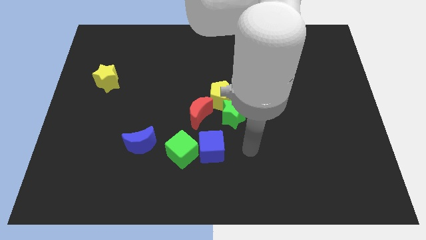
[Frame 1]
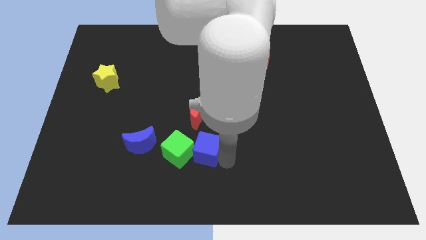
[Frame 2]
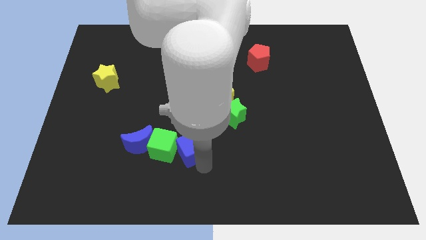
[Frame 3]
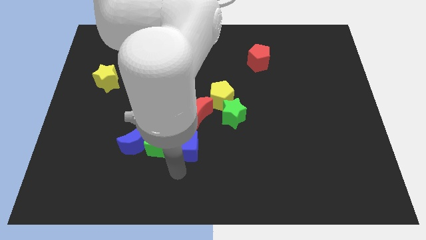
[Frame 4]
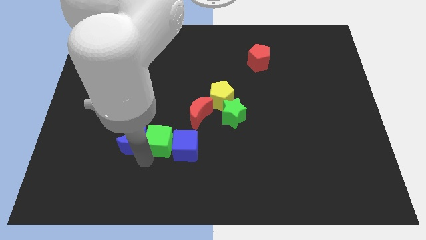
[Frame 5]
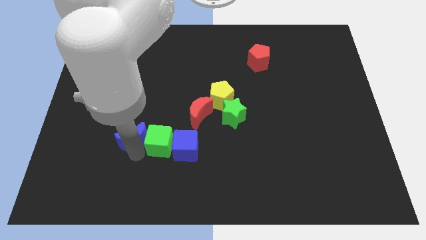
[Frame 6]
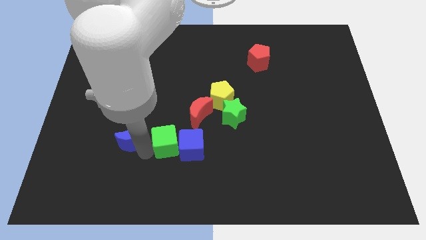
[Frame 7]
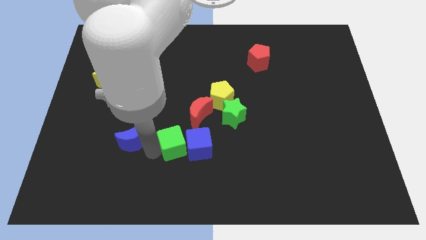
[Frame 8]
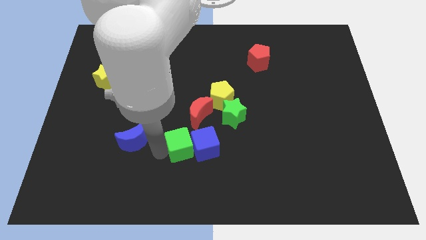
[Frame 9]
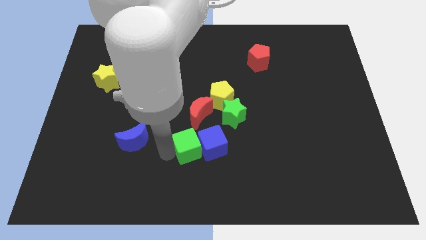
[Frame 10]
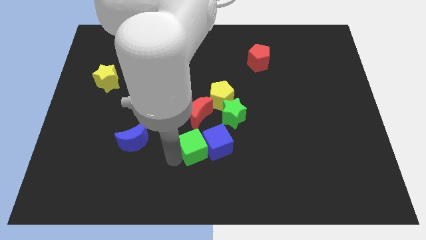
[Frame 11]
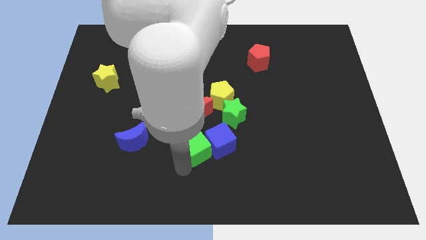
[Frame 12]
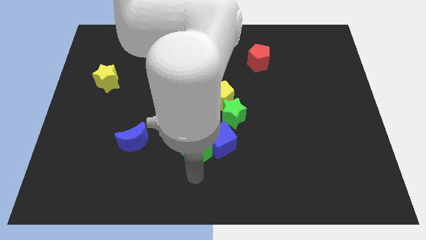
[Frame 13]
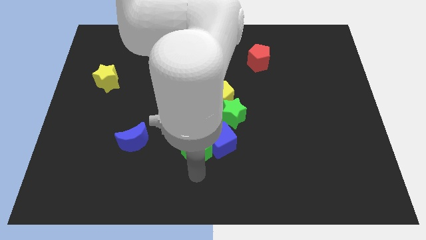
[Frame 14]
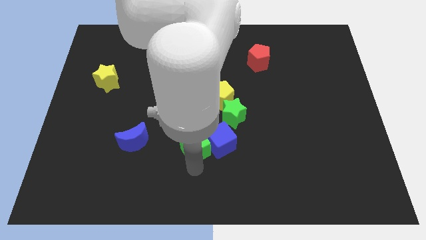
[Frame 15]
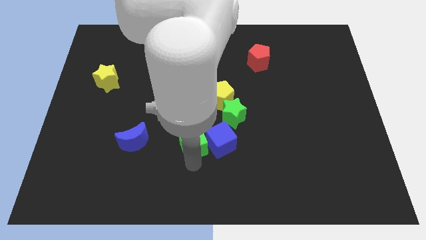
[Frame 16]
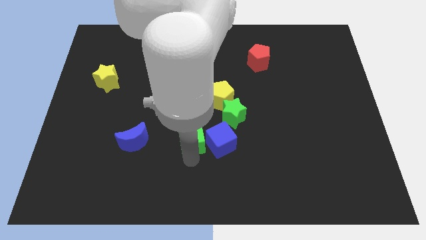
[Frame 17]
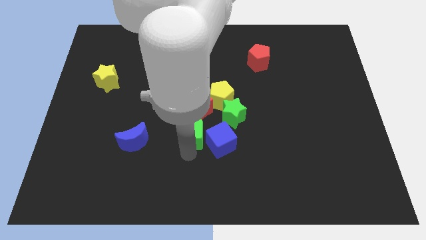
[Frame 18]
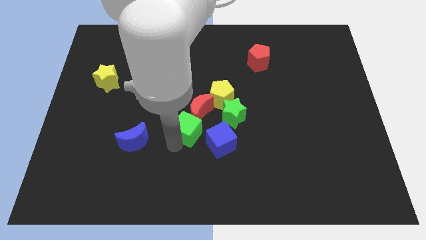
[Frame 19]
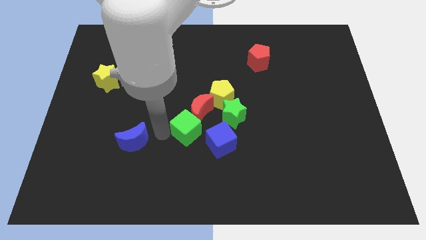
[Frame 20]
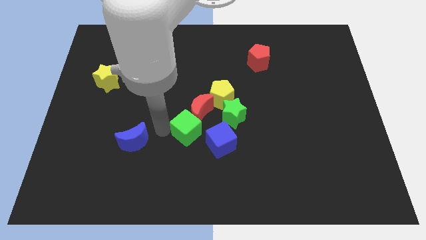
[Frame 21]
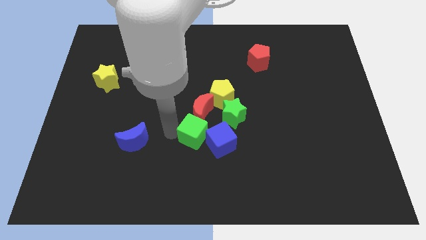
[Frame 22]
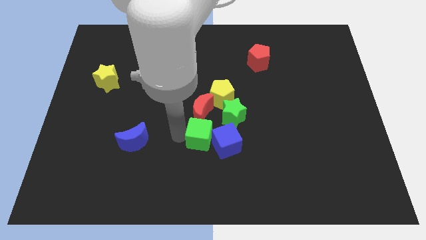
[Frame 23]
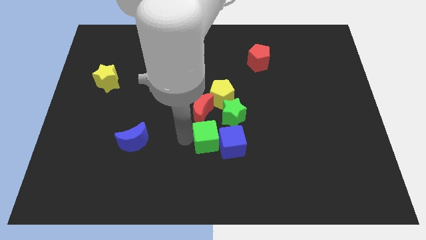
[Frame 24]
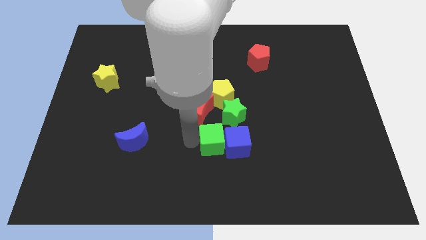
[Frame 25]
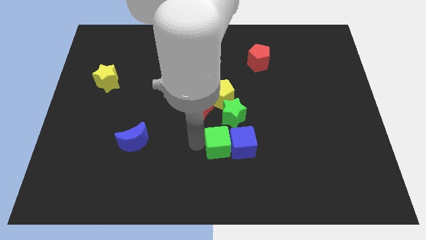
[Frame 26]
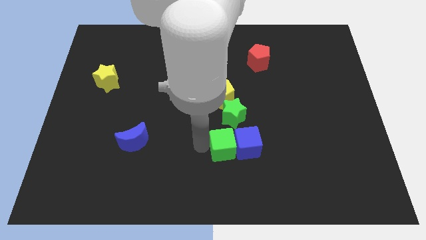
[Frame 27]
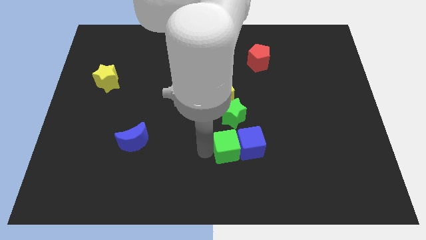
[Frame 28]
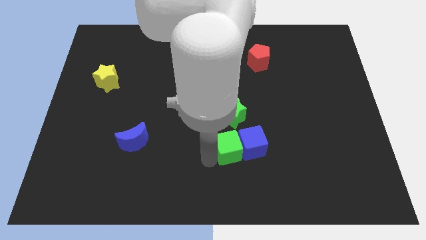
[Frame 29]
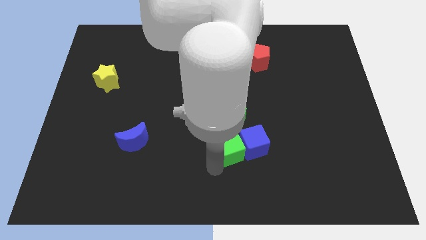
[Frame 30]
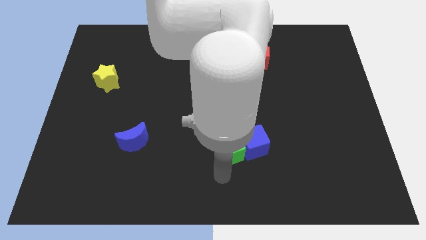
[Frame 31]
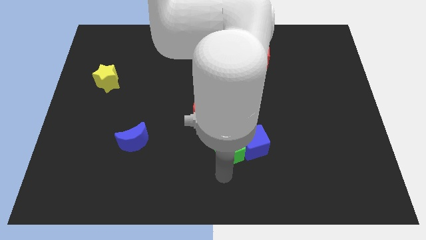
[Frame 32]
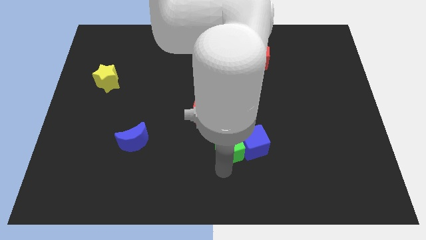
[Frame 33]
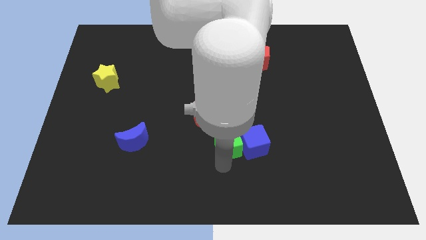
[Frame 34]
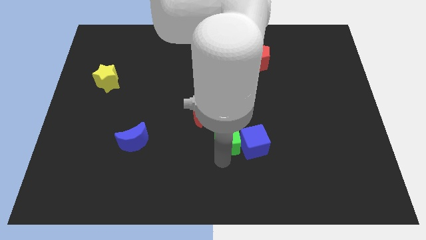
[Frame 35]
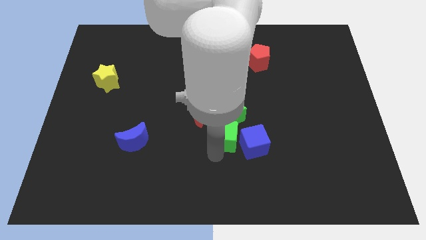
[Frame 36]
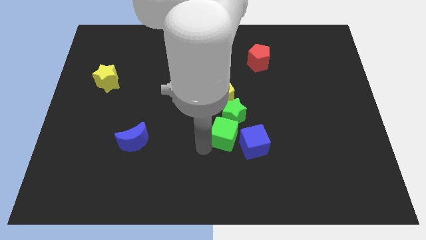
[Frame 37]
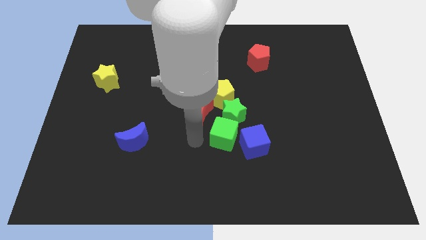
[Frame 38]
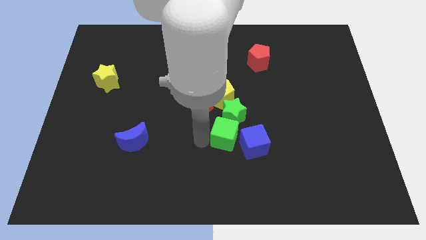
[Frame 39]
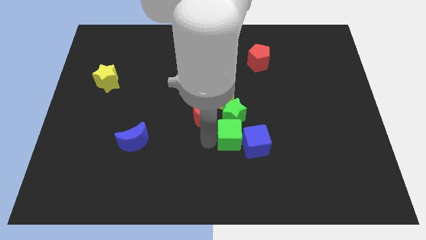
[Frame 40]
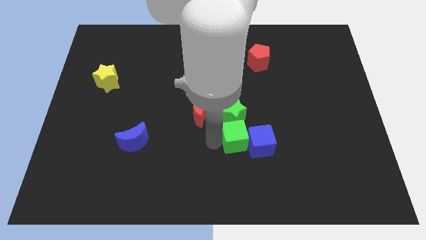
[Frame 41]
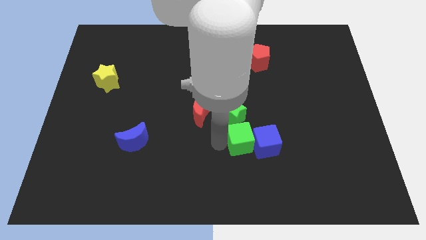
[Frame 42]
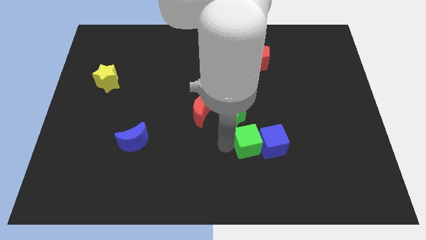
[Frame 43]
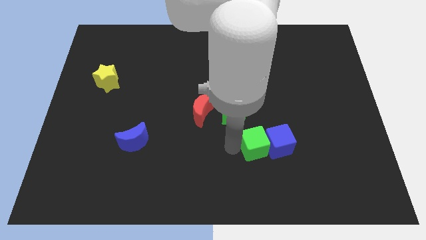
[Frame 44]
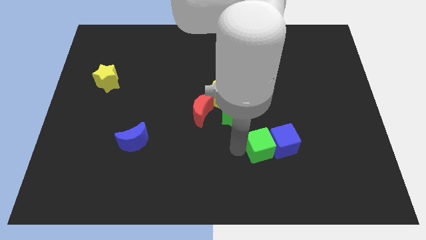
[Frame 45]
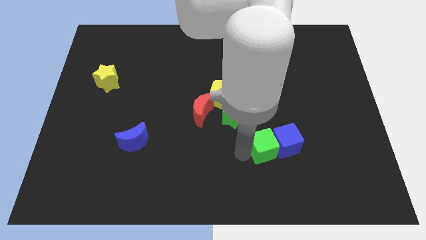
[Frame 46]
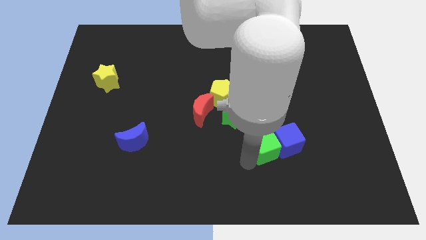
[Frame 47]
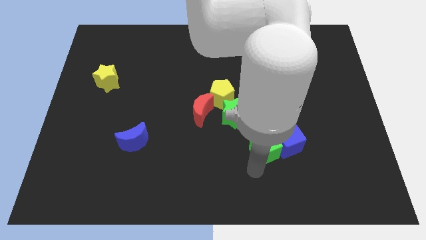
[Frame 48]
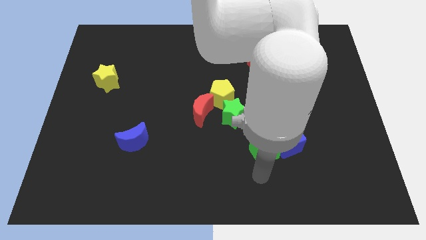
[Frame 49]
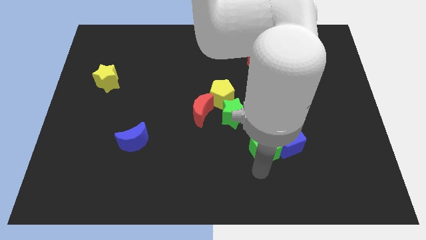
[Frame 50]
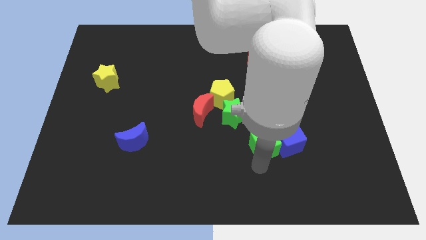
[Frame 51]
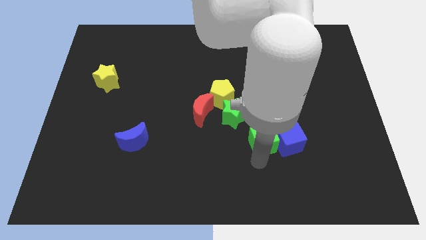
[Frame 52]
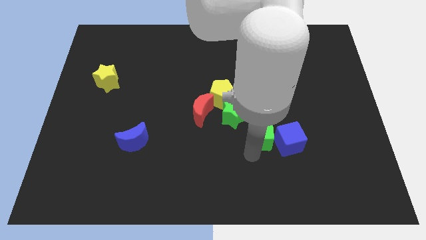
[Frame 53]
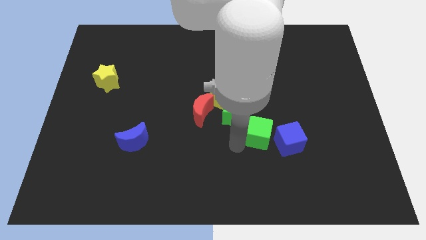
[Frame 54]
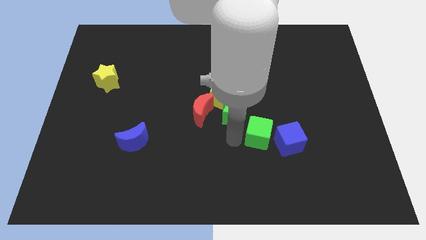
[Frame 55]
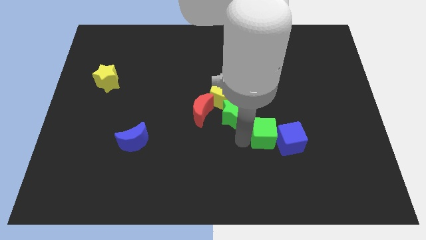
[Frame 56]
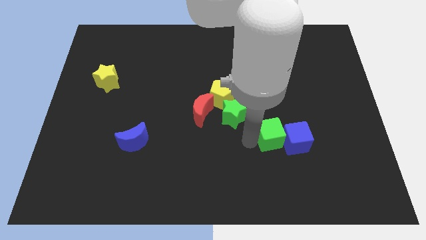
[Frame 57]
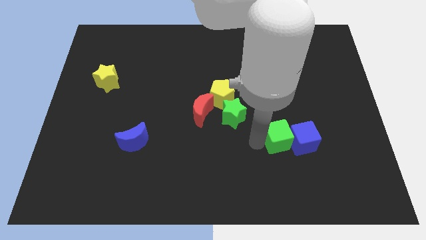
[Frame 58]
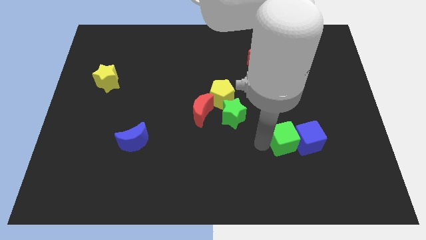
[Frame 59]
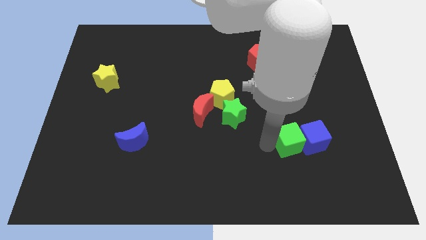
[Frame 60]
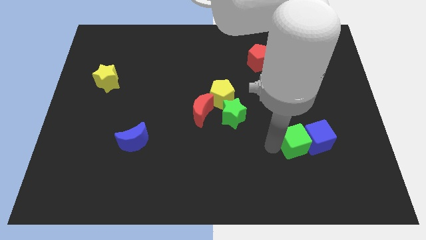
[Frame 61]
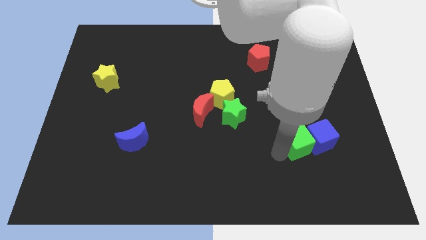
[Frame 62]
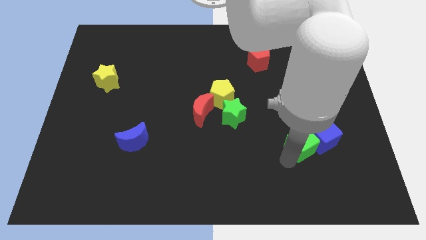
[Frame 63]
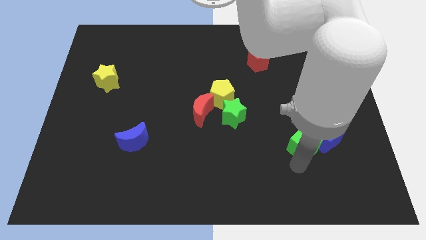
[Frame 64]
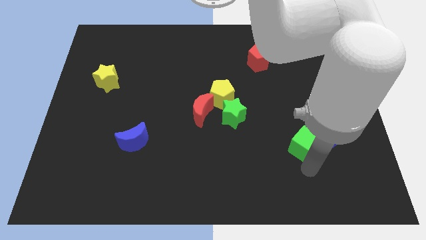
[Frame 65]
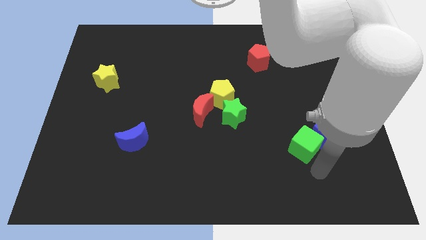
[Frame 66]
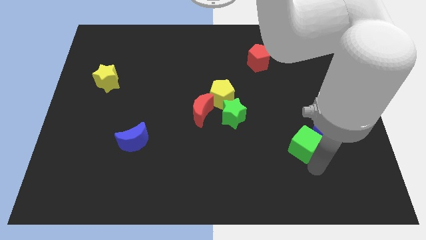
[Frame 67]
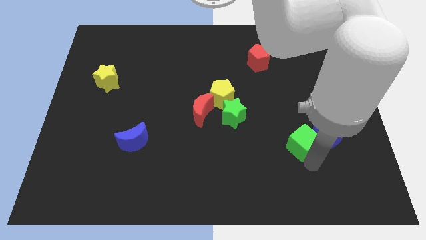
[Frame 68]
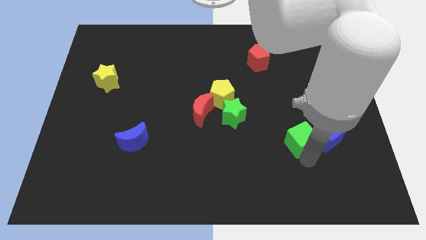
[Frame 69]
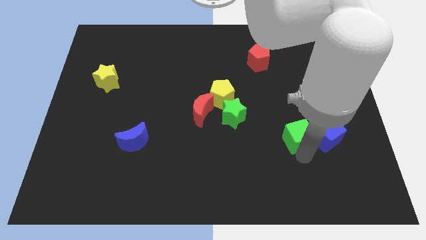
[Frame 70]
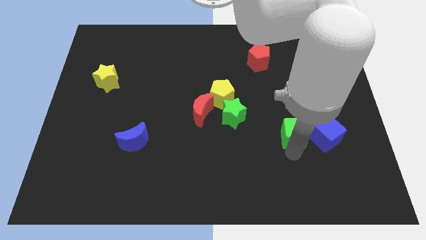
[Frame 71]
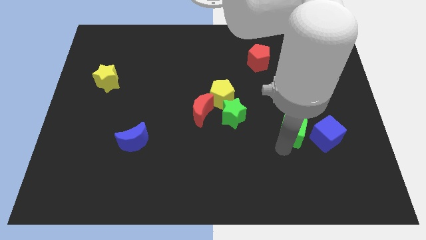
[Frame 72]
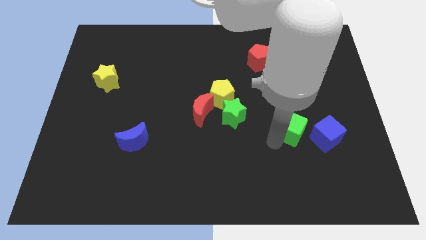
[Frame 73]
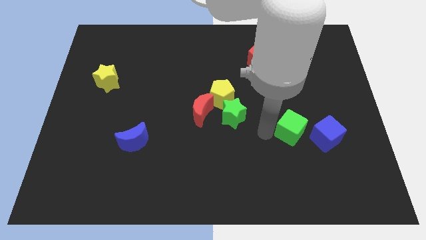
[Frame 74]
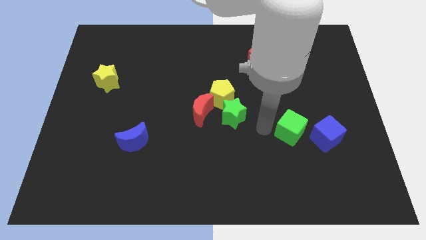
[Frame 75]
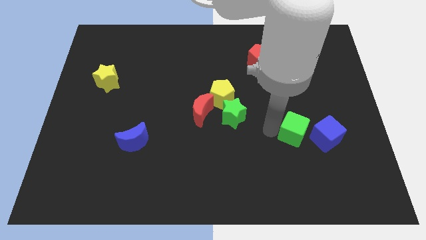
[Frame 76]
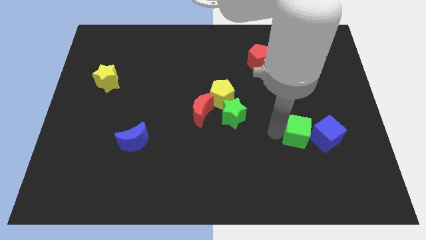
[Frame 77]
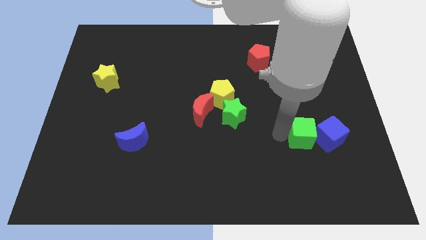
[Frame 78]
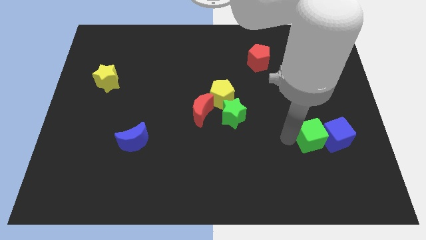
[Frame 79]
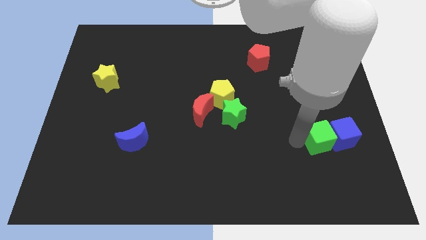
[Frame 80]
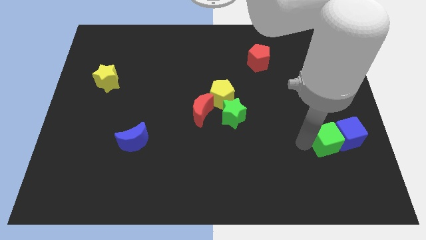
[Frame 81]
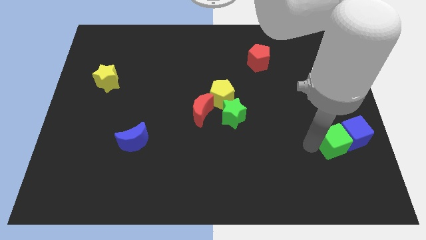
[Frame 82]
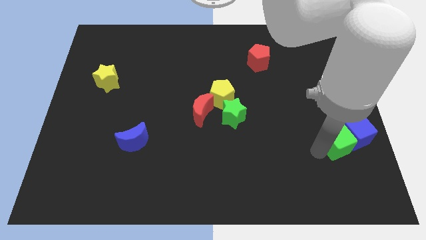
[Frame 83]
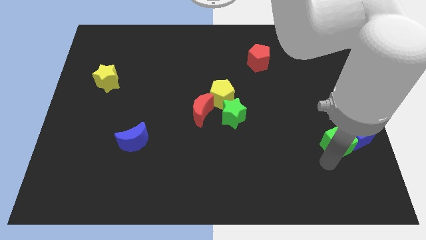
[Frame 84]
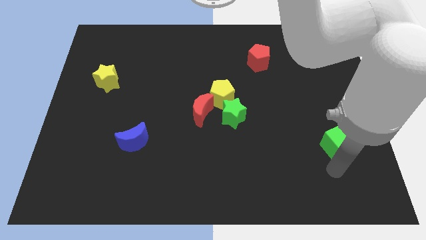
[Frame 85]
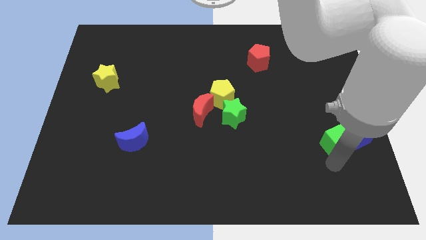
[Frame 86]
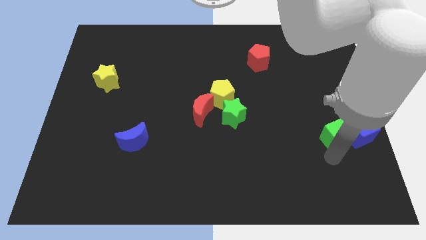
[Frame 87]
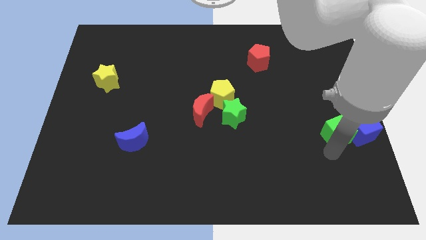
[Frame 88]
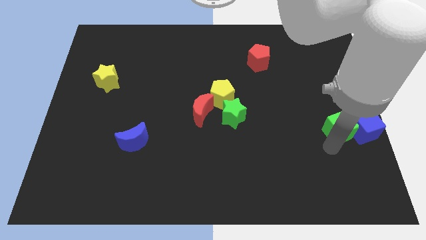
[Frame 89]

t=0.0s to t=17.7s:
move the green cube to the center right
